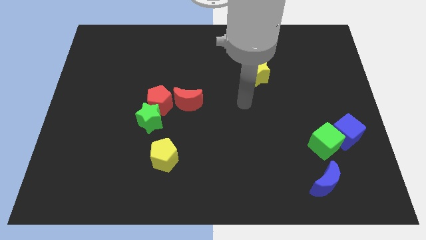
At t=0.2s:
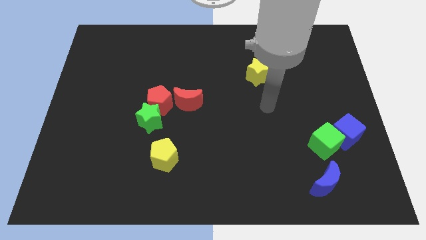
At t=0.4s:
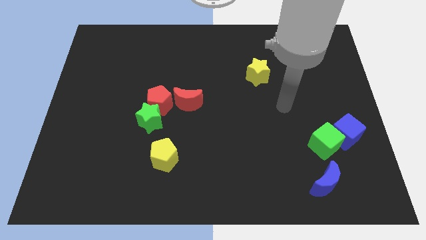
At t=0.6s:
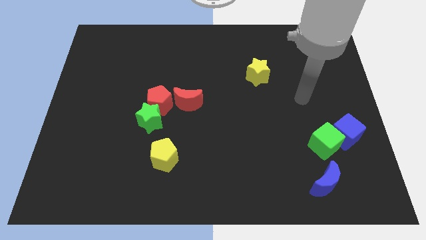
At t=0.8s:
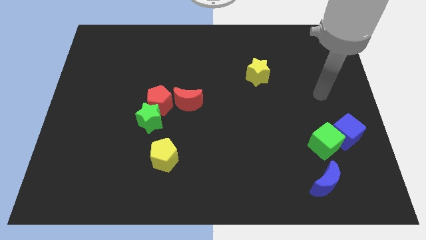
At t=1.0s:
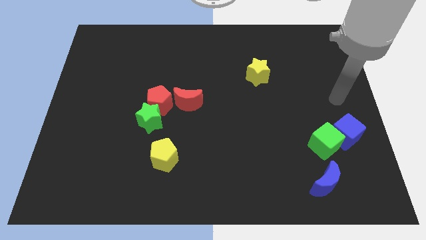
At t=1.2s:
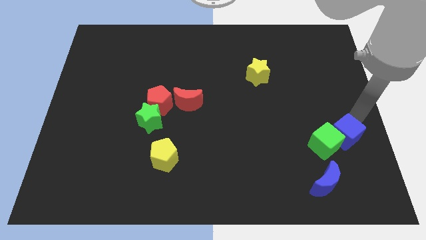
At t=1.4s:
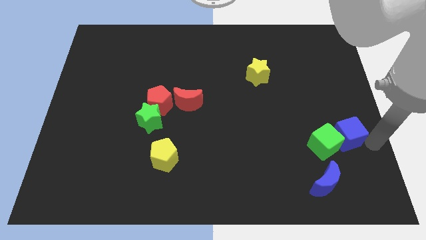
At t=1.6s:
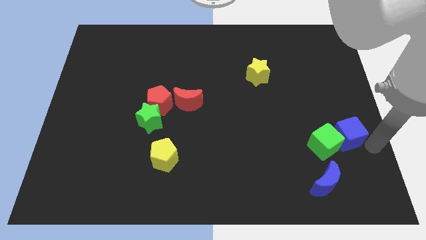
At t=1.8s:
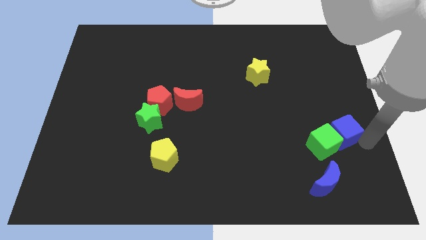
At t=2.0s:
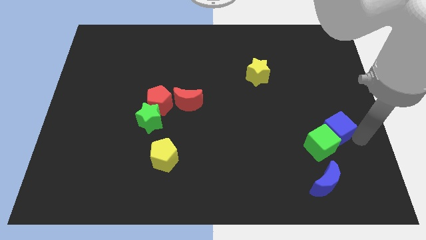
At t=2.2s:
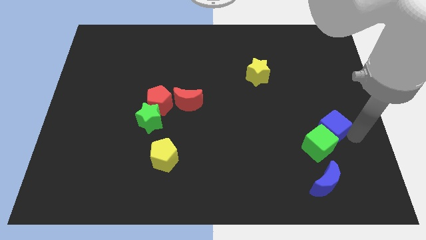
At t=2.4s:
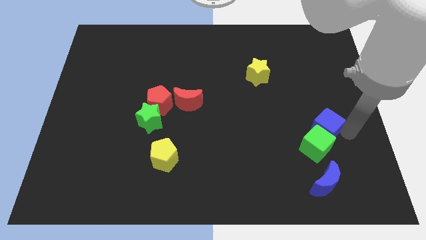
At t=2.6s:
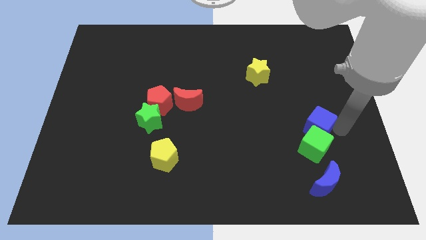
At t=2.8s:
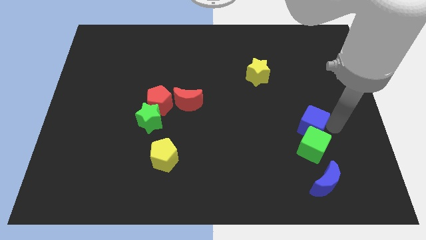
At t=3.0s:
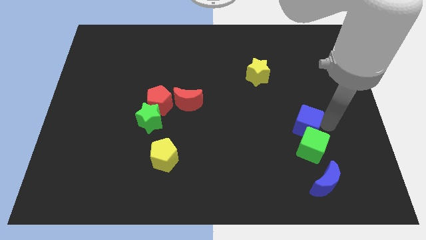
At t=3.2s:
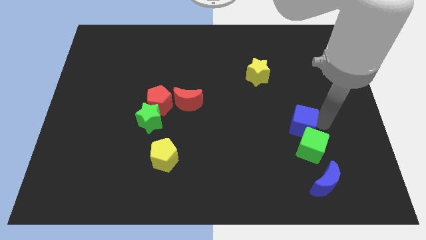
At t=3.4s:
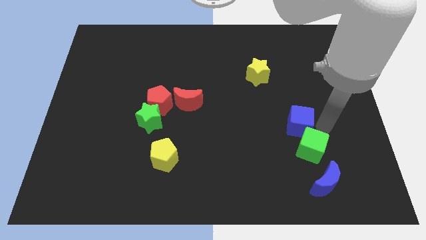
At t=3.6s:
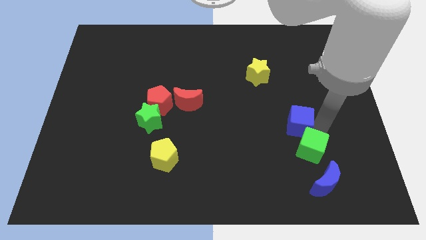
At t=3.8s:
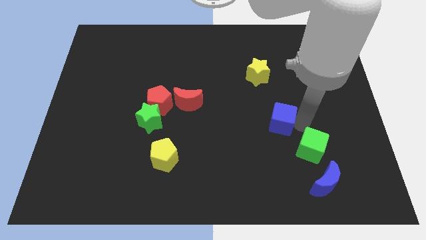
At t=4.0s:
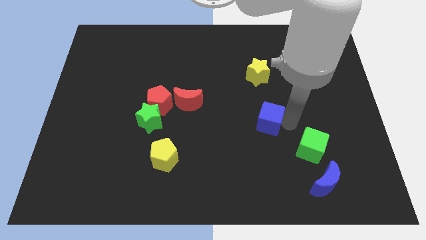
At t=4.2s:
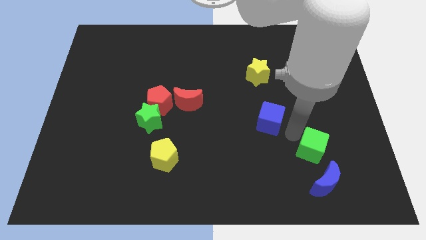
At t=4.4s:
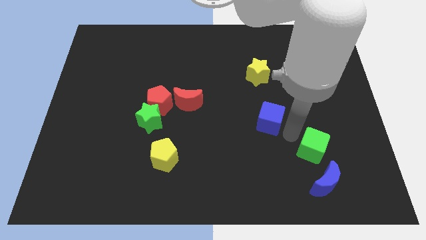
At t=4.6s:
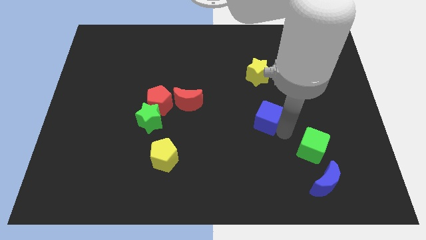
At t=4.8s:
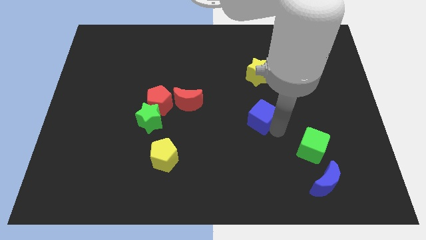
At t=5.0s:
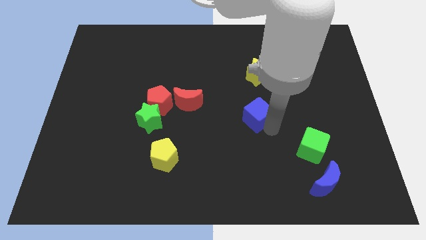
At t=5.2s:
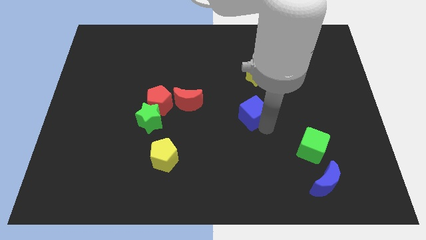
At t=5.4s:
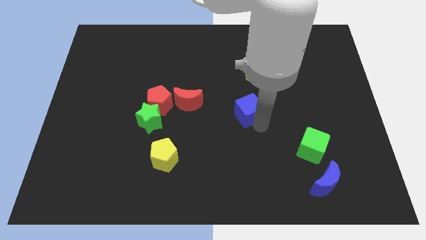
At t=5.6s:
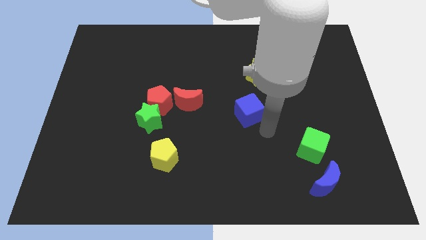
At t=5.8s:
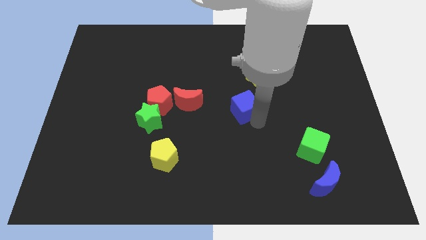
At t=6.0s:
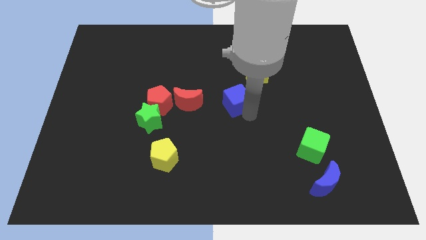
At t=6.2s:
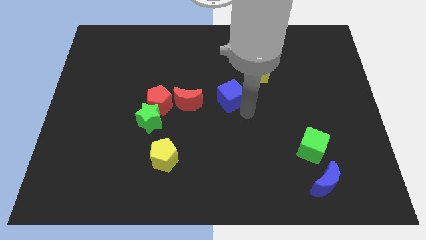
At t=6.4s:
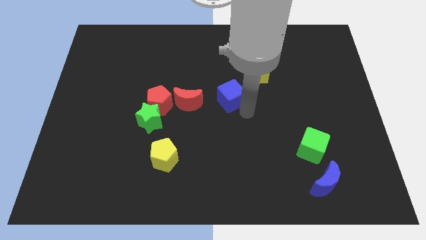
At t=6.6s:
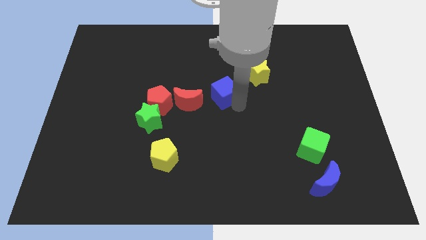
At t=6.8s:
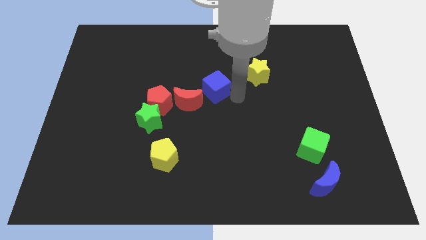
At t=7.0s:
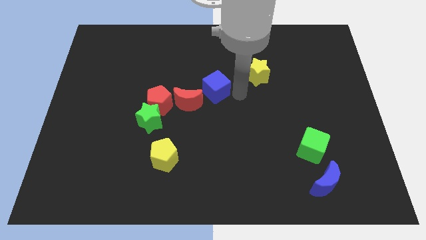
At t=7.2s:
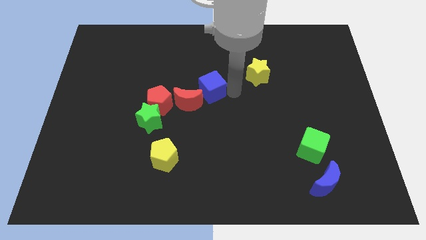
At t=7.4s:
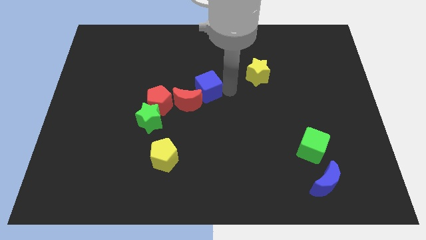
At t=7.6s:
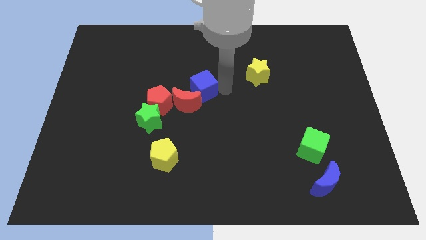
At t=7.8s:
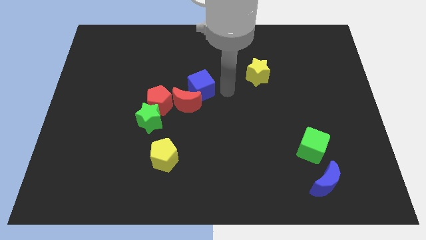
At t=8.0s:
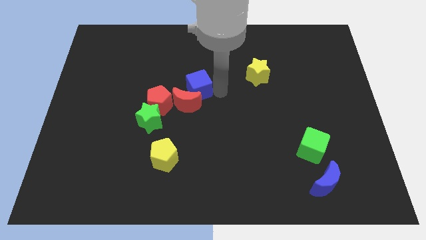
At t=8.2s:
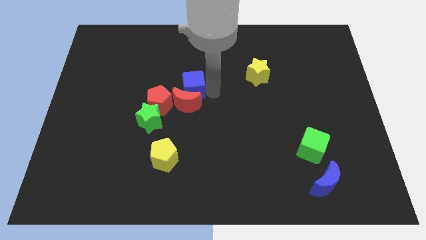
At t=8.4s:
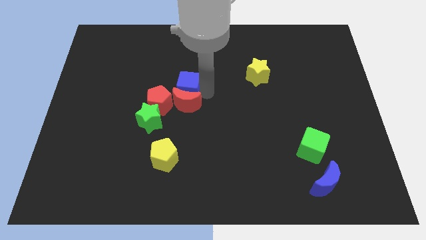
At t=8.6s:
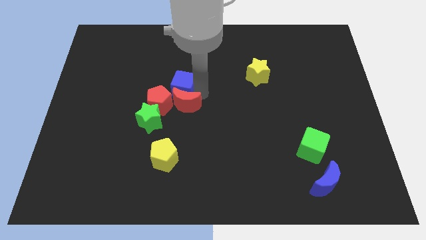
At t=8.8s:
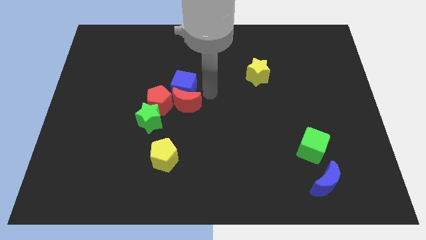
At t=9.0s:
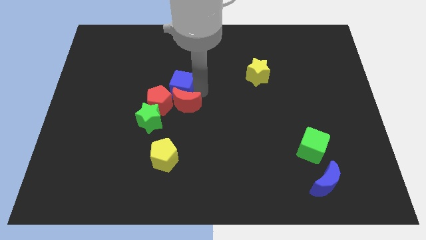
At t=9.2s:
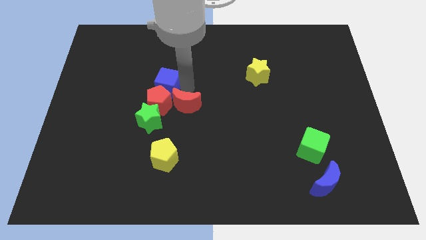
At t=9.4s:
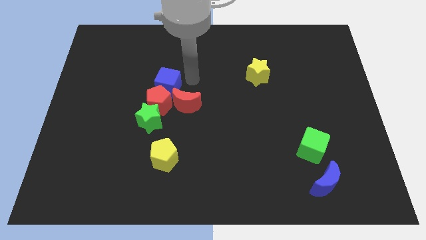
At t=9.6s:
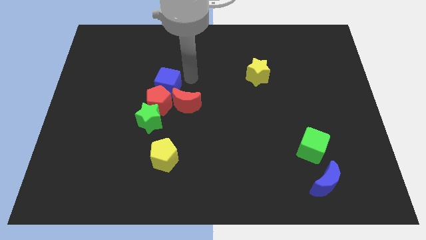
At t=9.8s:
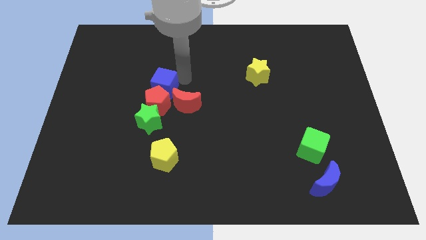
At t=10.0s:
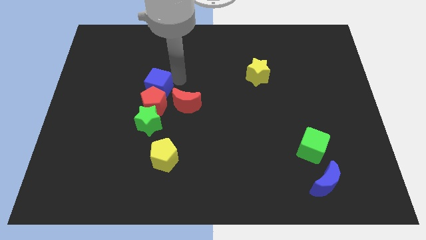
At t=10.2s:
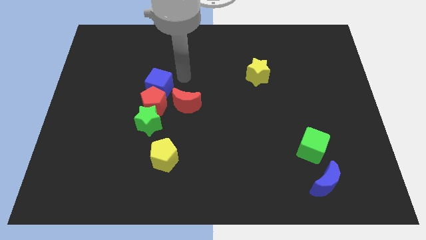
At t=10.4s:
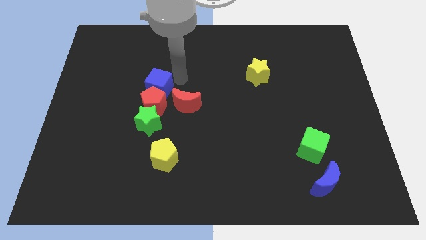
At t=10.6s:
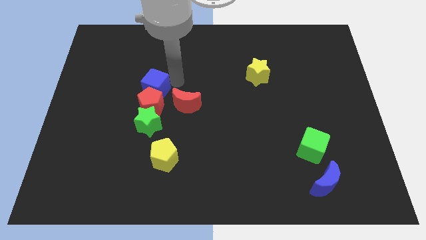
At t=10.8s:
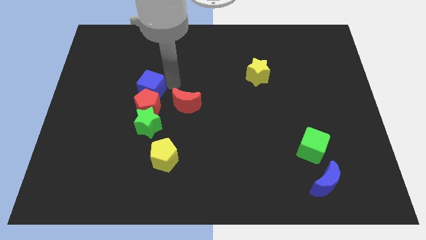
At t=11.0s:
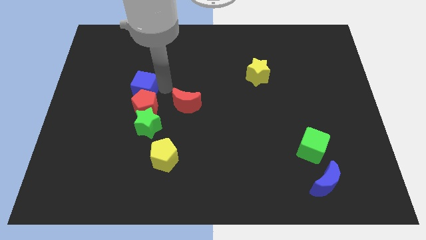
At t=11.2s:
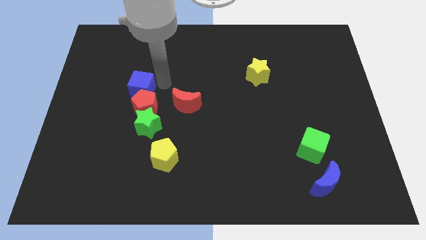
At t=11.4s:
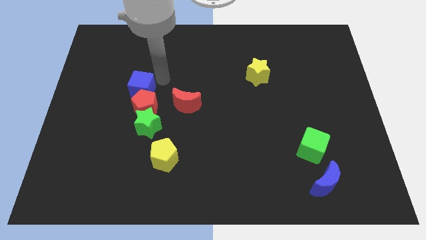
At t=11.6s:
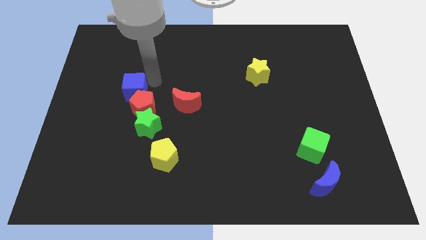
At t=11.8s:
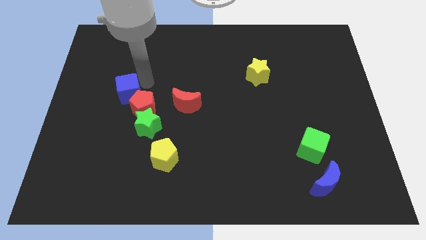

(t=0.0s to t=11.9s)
slide the blue cube to the left side of the red pentagon

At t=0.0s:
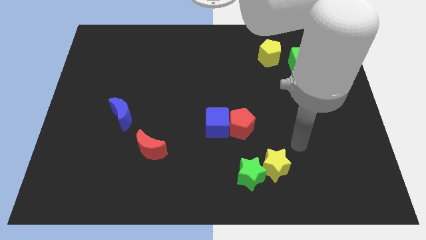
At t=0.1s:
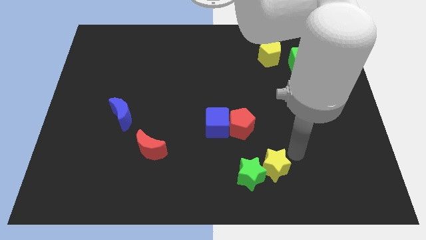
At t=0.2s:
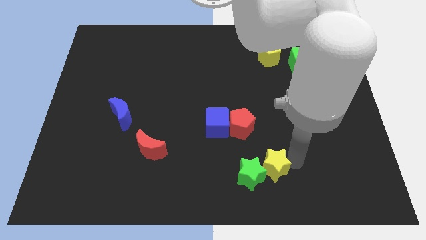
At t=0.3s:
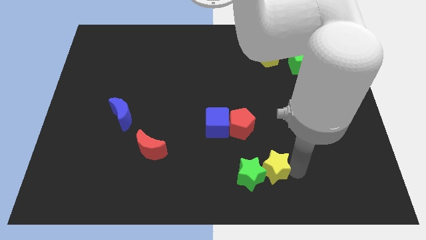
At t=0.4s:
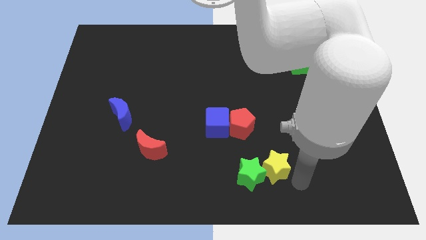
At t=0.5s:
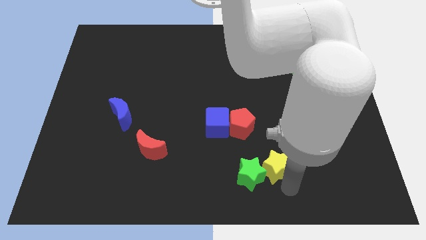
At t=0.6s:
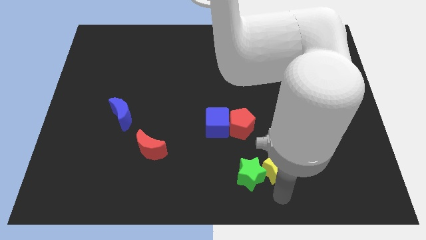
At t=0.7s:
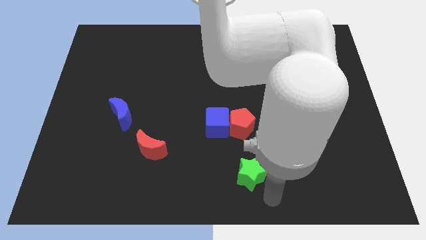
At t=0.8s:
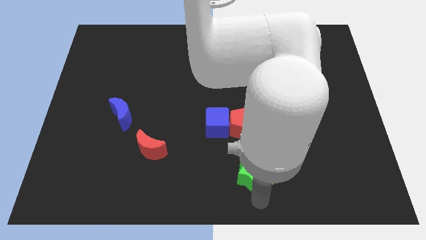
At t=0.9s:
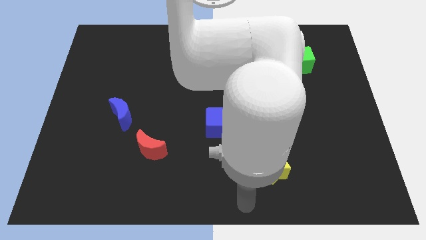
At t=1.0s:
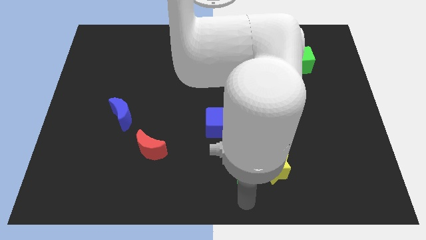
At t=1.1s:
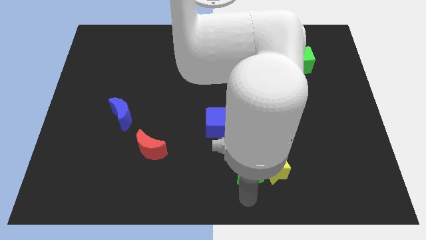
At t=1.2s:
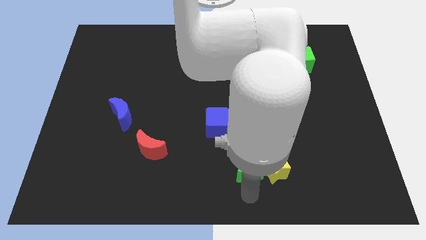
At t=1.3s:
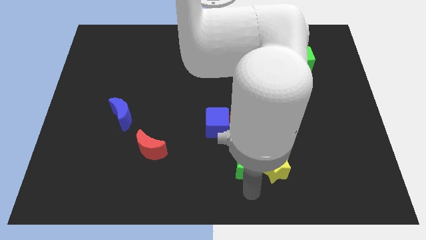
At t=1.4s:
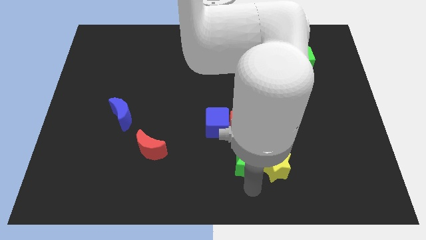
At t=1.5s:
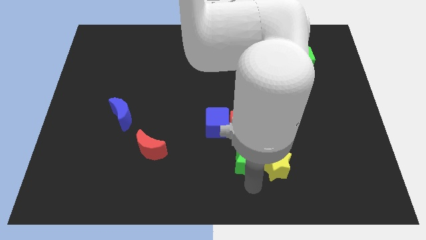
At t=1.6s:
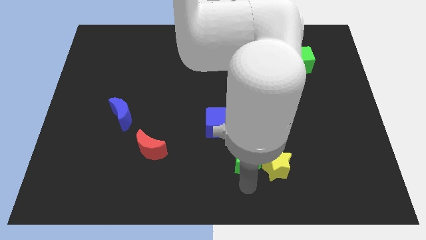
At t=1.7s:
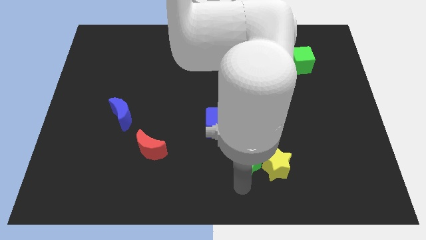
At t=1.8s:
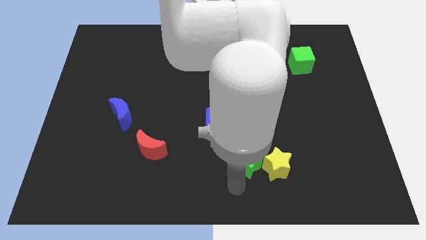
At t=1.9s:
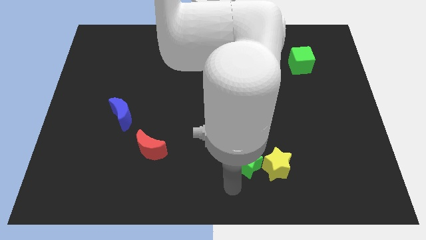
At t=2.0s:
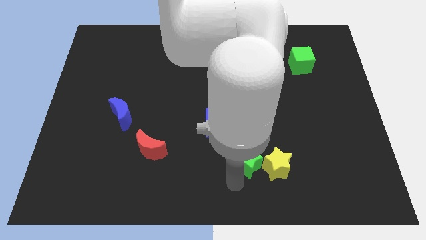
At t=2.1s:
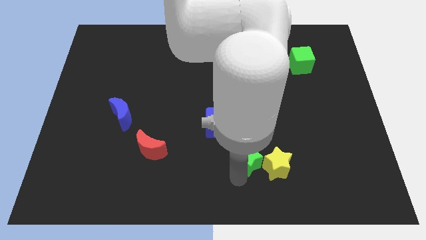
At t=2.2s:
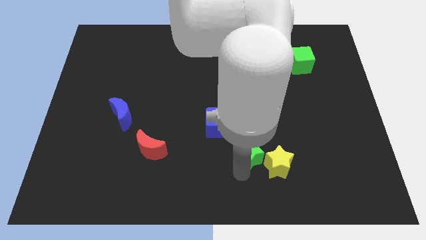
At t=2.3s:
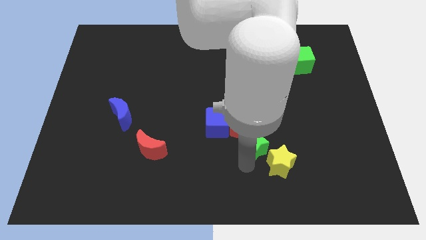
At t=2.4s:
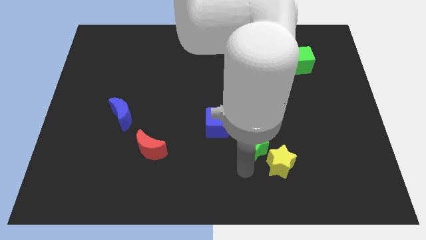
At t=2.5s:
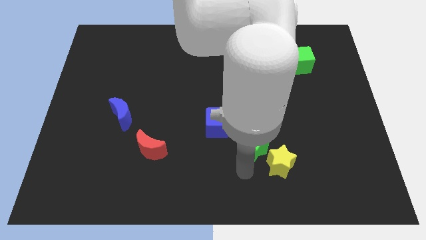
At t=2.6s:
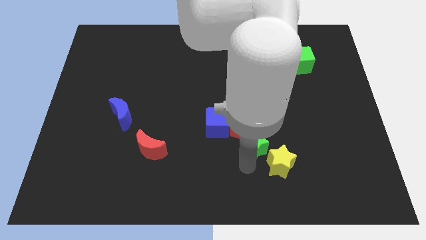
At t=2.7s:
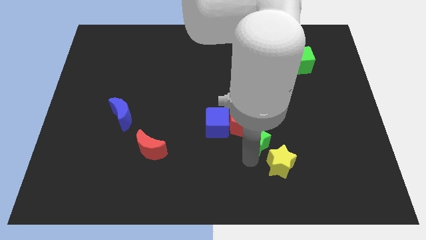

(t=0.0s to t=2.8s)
push the green star right of the blue cube
